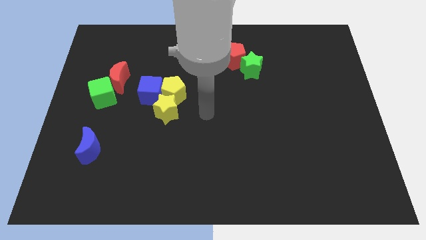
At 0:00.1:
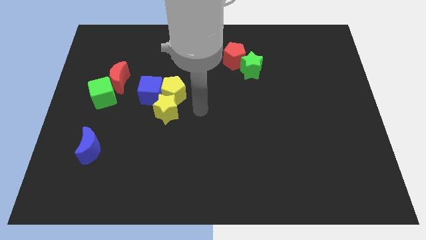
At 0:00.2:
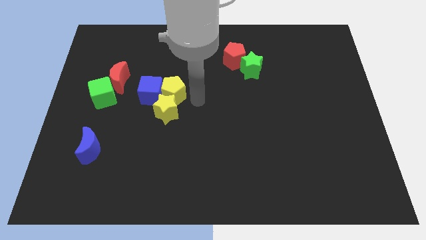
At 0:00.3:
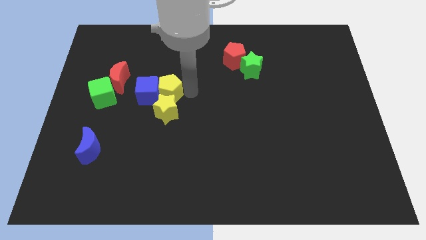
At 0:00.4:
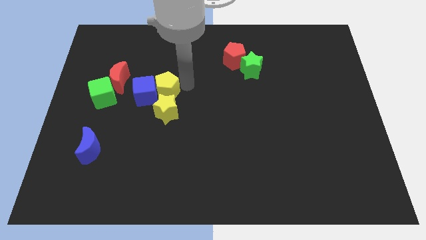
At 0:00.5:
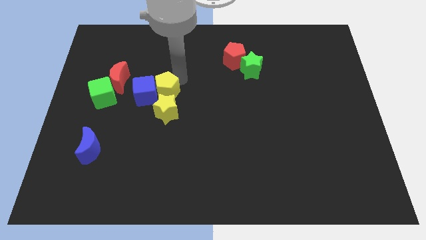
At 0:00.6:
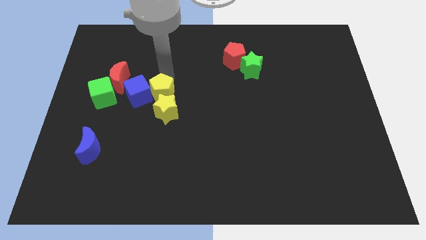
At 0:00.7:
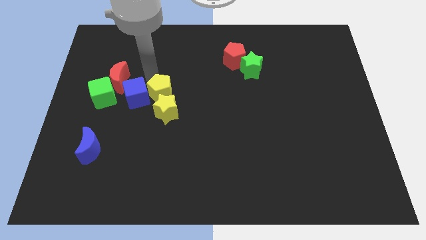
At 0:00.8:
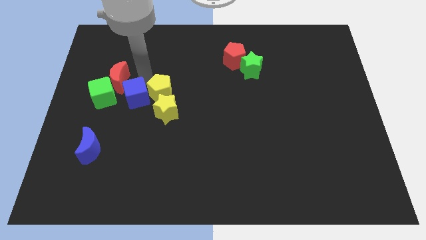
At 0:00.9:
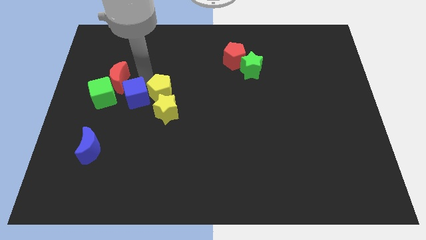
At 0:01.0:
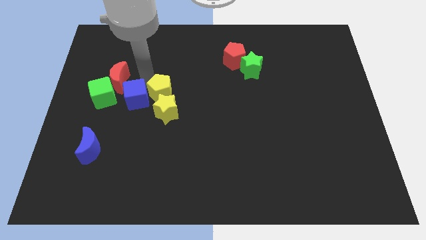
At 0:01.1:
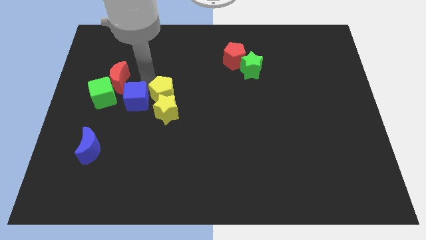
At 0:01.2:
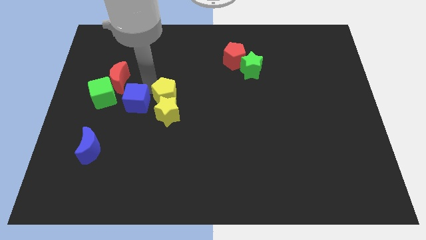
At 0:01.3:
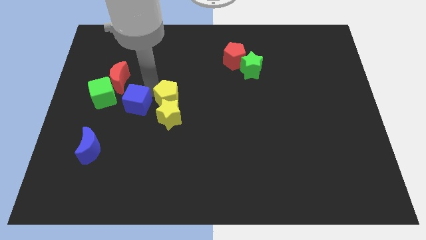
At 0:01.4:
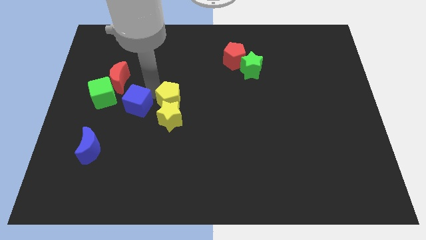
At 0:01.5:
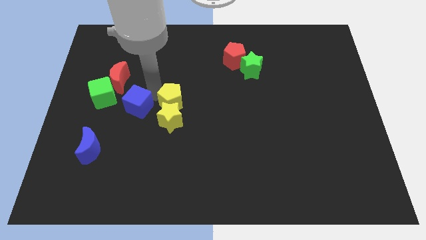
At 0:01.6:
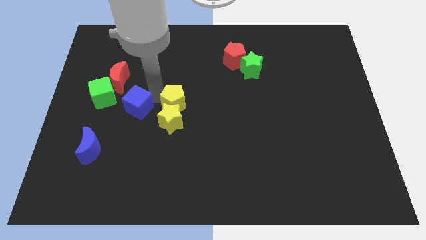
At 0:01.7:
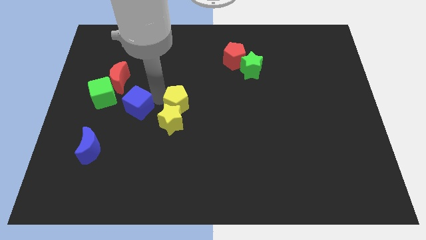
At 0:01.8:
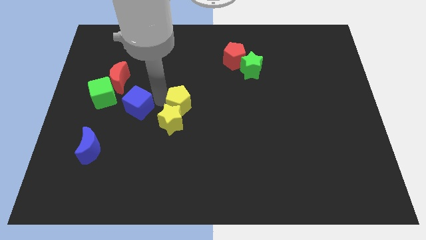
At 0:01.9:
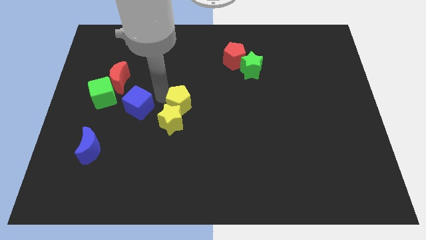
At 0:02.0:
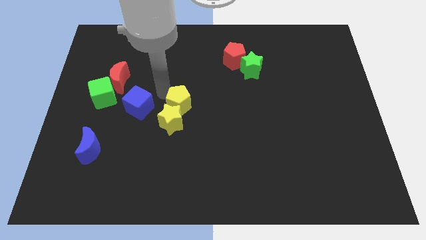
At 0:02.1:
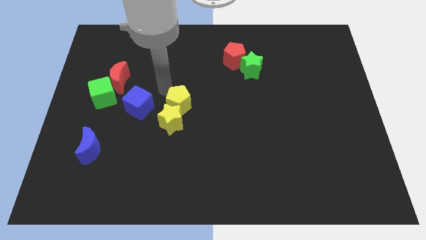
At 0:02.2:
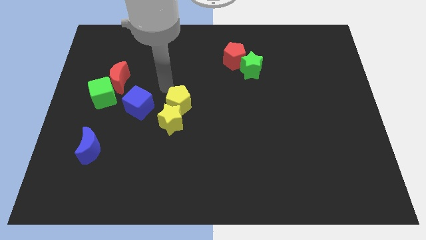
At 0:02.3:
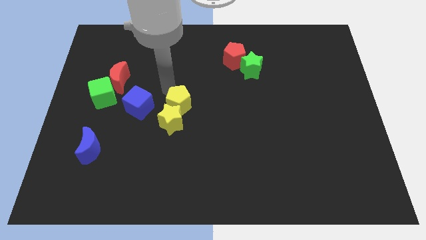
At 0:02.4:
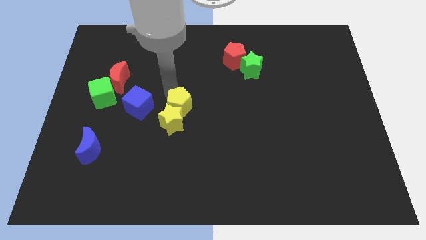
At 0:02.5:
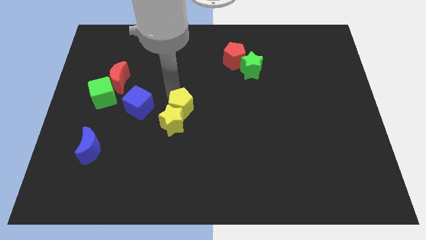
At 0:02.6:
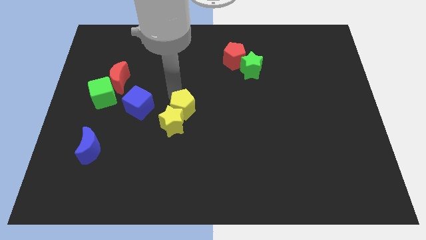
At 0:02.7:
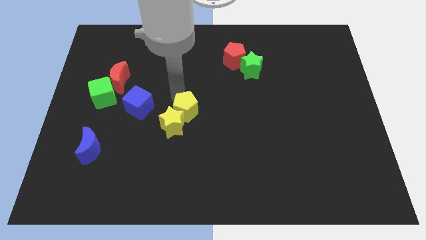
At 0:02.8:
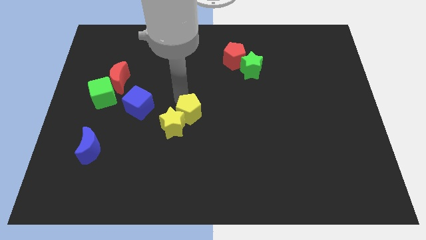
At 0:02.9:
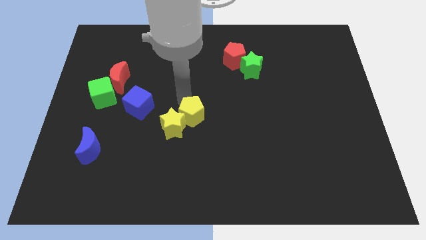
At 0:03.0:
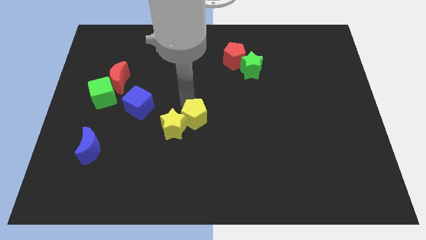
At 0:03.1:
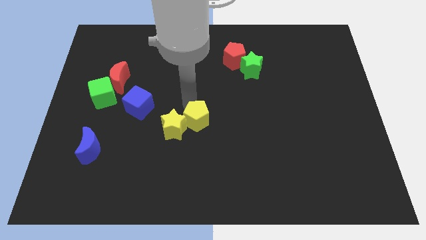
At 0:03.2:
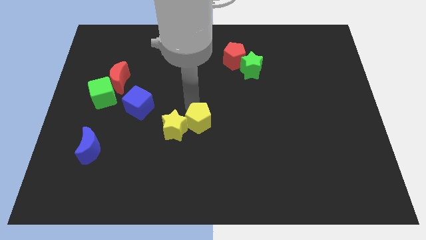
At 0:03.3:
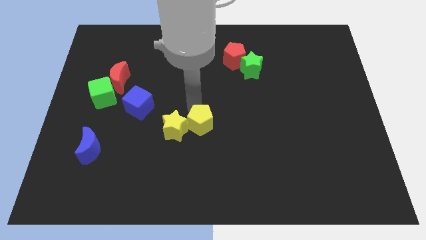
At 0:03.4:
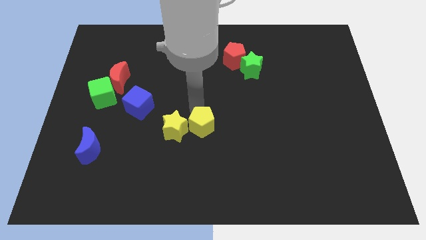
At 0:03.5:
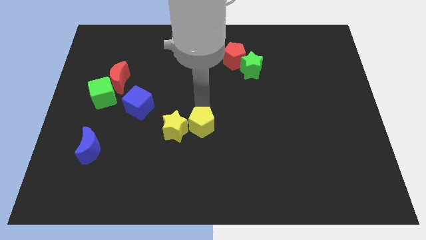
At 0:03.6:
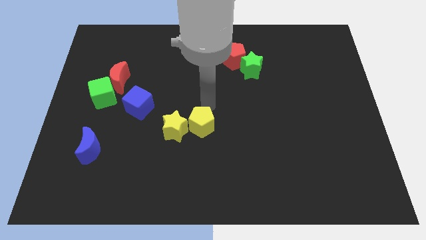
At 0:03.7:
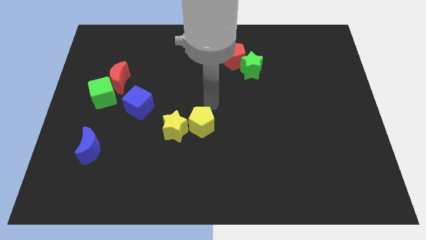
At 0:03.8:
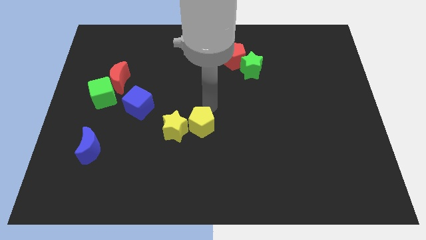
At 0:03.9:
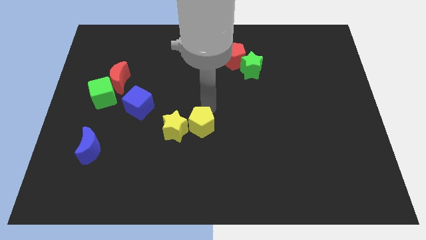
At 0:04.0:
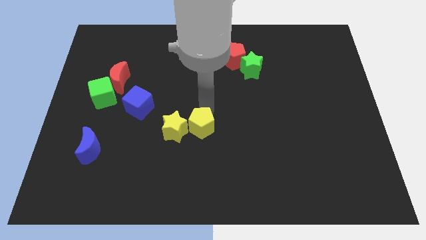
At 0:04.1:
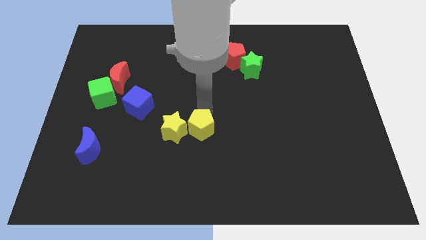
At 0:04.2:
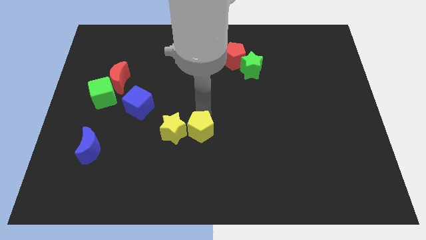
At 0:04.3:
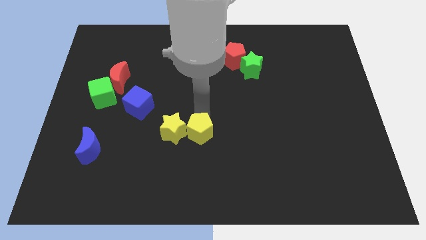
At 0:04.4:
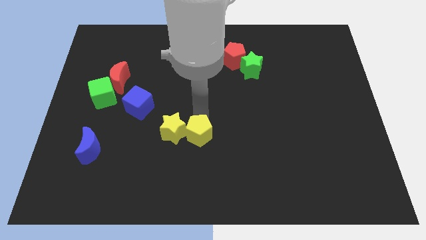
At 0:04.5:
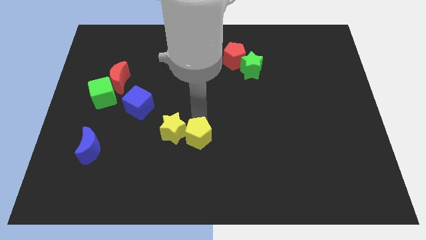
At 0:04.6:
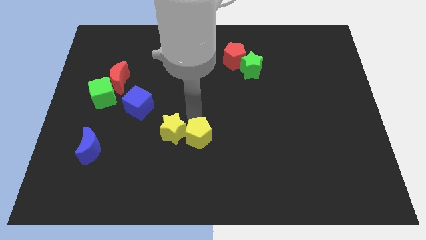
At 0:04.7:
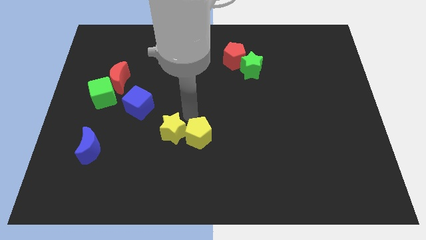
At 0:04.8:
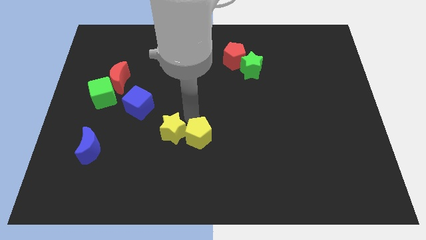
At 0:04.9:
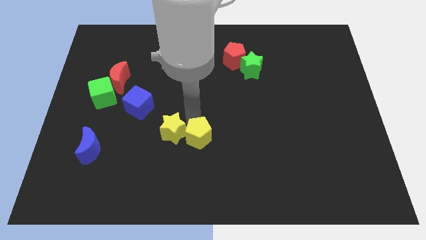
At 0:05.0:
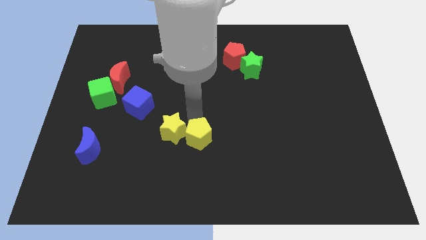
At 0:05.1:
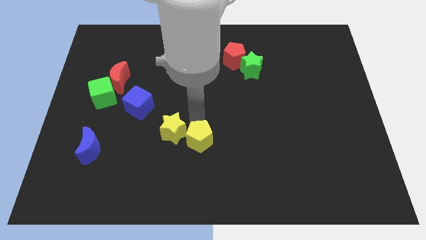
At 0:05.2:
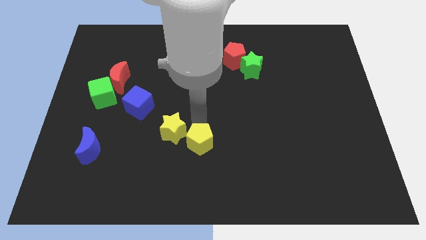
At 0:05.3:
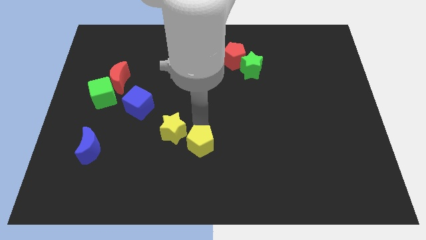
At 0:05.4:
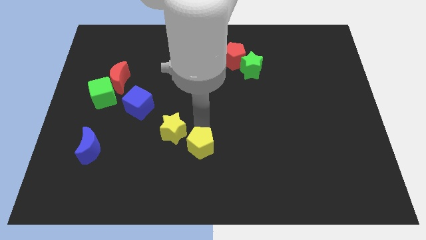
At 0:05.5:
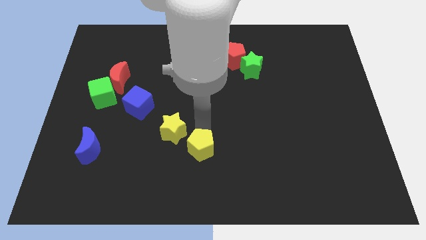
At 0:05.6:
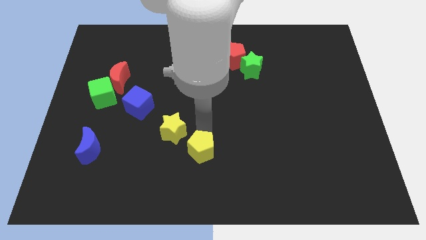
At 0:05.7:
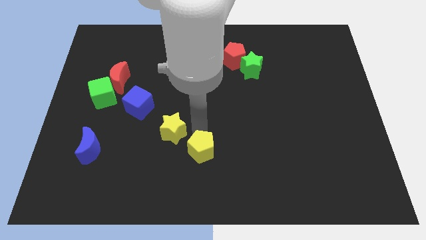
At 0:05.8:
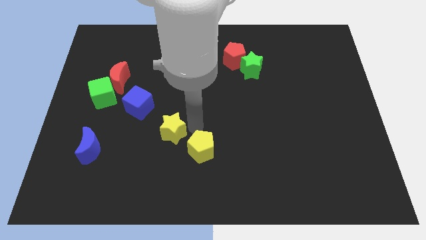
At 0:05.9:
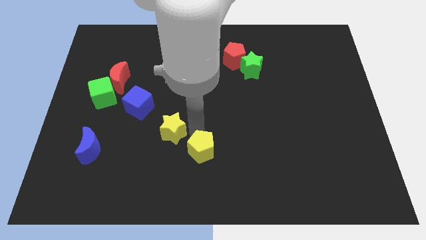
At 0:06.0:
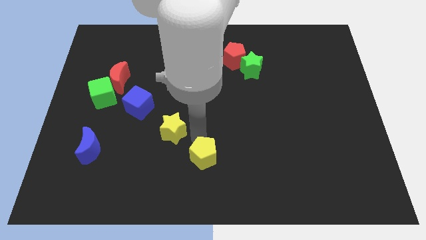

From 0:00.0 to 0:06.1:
push the yellow pentagon to the bottom side

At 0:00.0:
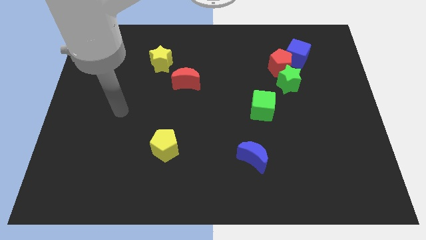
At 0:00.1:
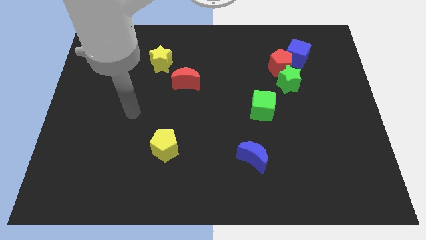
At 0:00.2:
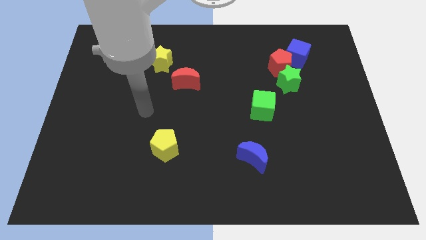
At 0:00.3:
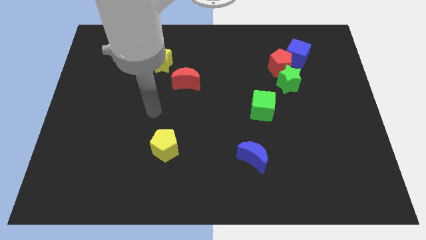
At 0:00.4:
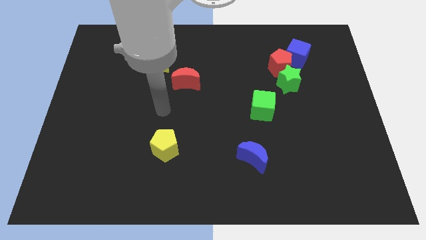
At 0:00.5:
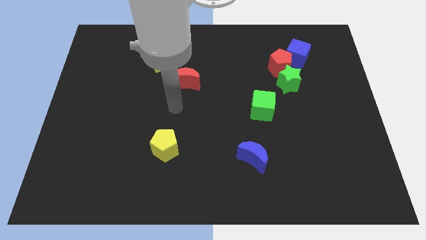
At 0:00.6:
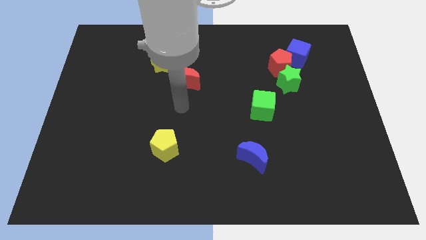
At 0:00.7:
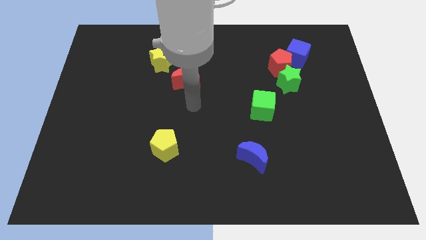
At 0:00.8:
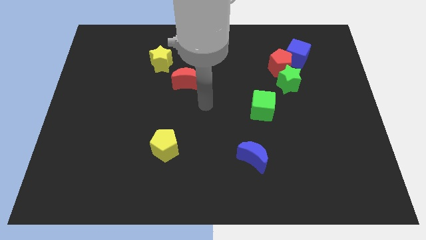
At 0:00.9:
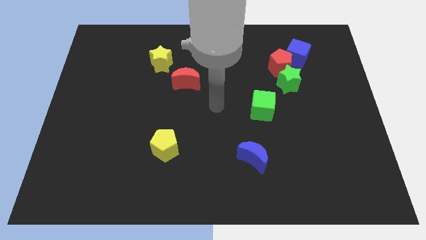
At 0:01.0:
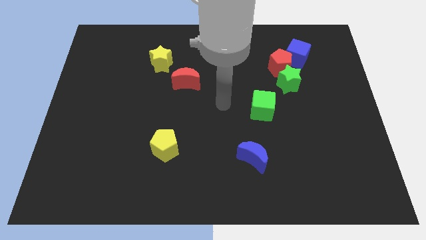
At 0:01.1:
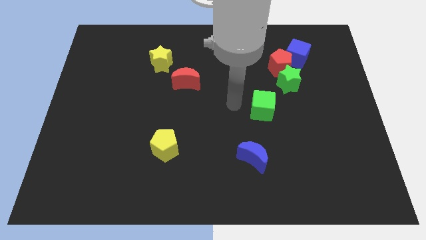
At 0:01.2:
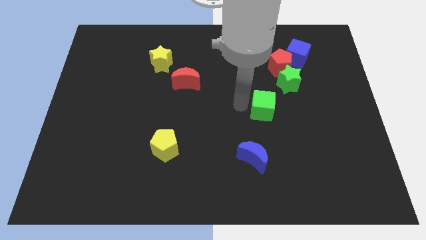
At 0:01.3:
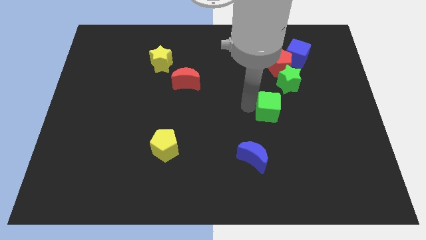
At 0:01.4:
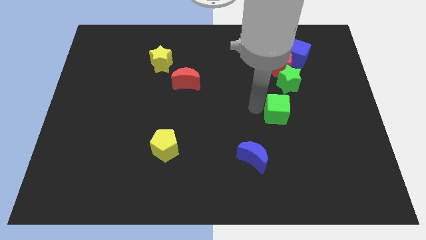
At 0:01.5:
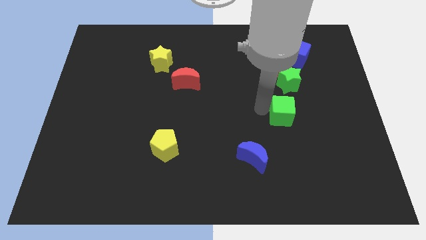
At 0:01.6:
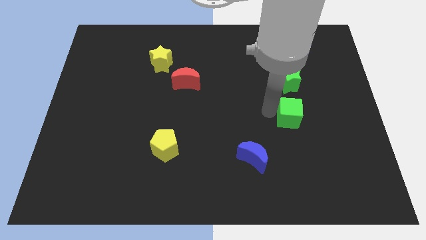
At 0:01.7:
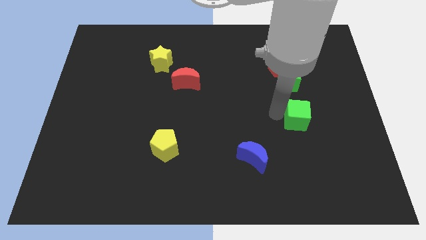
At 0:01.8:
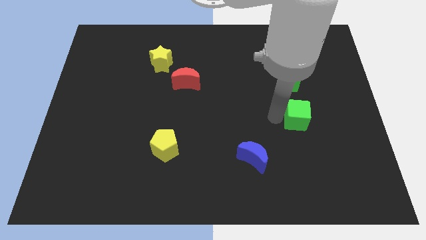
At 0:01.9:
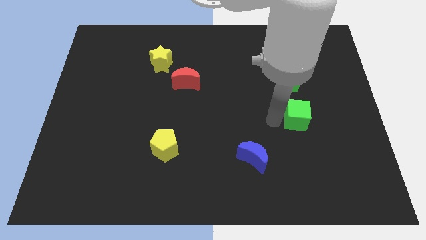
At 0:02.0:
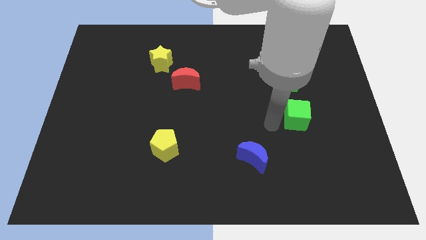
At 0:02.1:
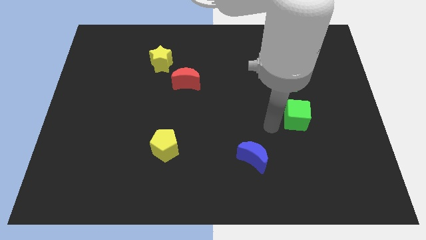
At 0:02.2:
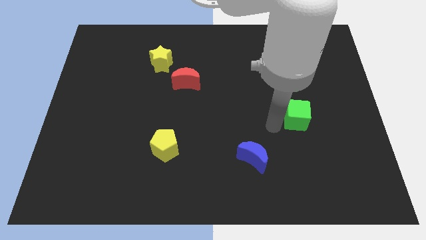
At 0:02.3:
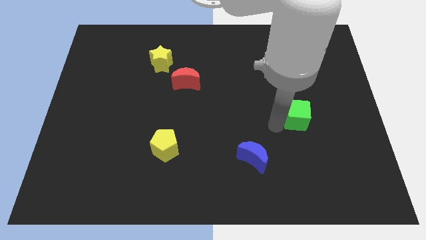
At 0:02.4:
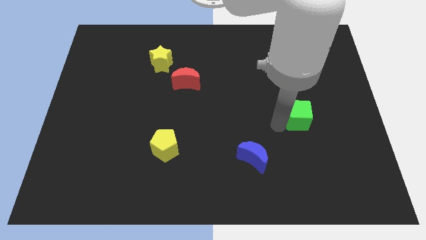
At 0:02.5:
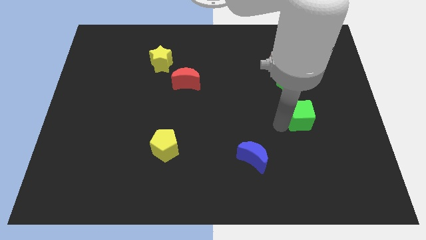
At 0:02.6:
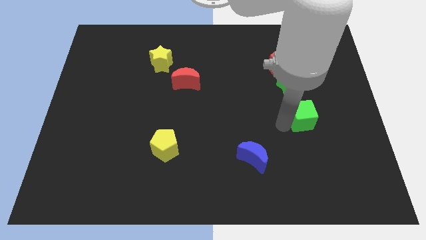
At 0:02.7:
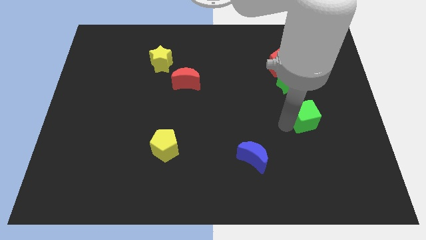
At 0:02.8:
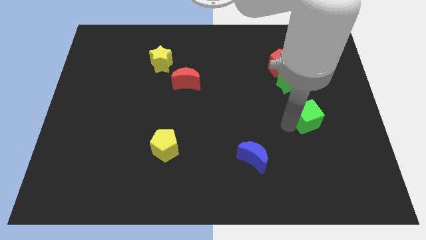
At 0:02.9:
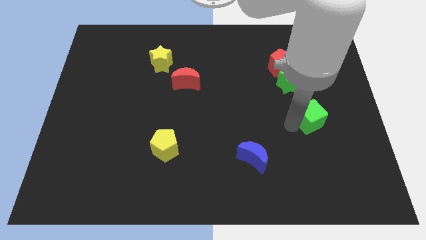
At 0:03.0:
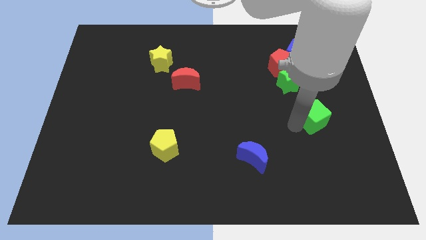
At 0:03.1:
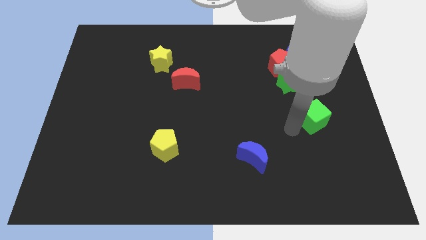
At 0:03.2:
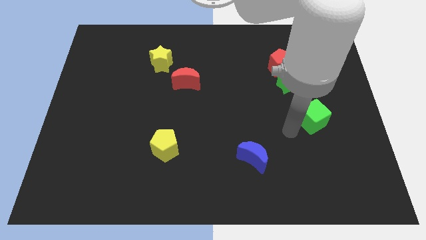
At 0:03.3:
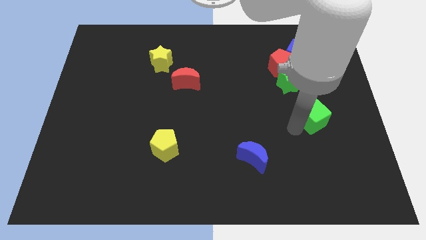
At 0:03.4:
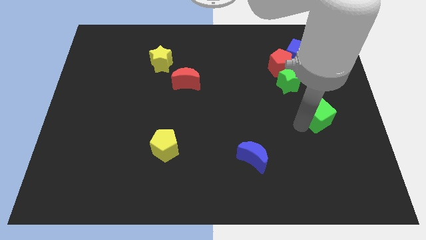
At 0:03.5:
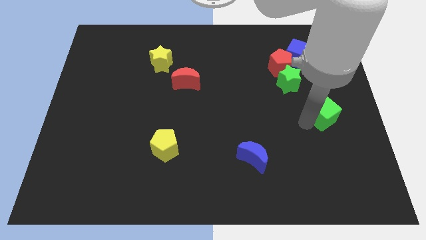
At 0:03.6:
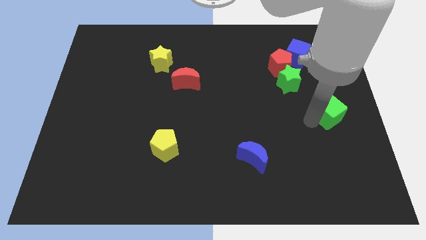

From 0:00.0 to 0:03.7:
push the green cube to the center right
